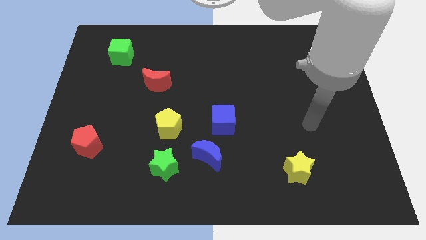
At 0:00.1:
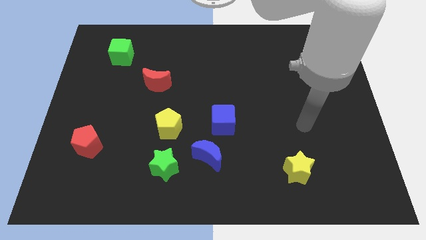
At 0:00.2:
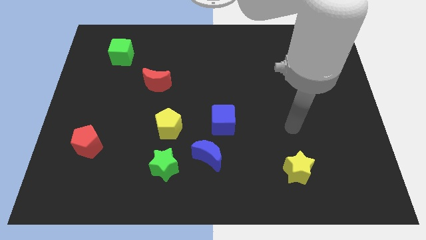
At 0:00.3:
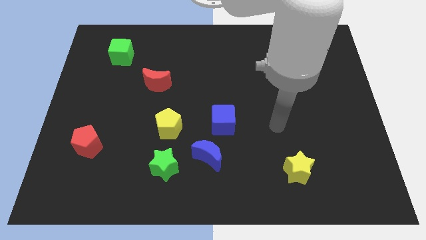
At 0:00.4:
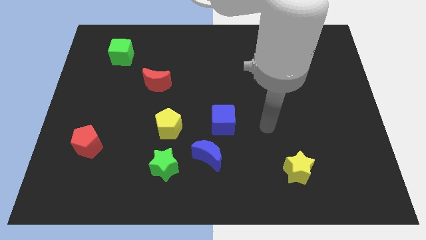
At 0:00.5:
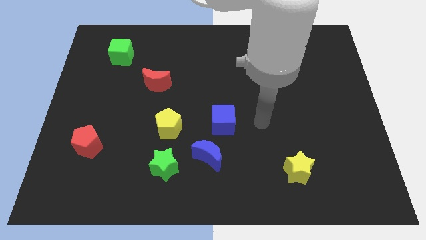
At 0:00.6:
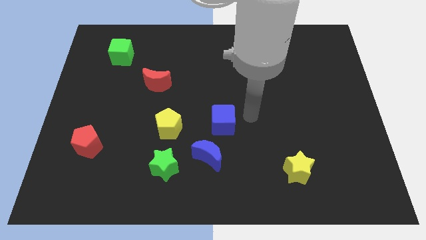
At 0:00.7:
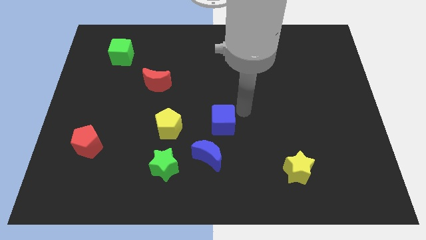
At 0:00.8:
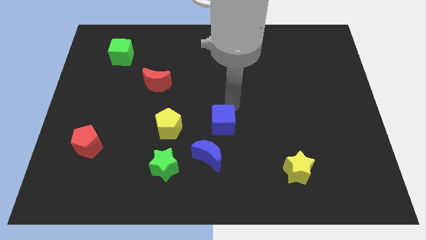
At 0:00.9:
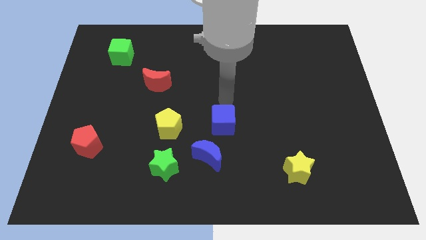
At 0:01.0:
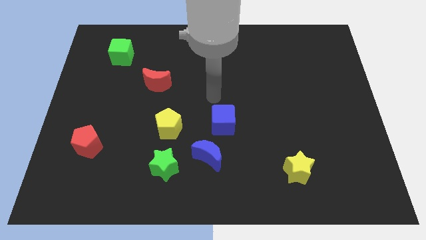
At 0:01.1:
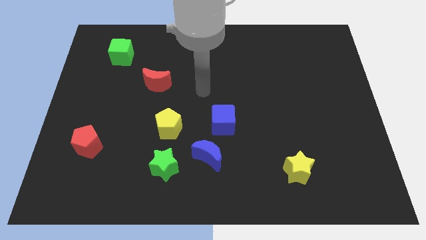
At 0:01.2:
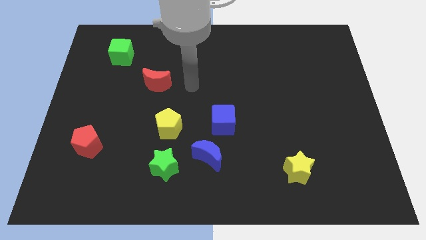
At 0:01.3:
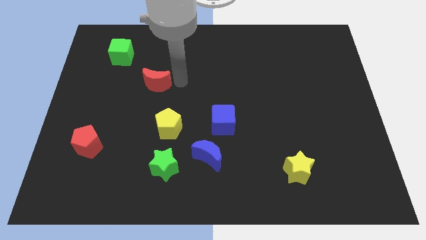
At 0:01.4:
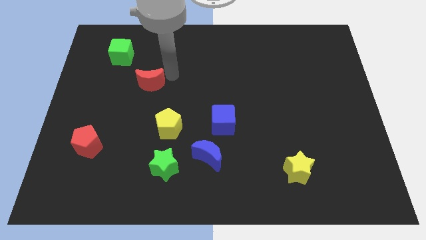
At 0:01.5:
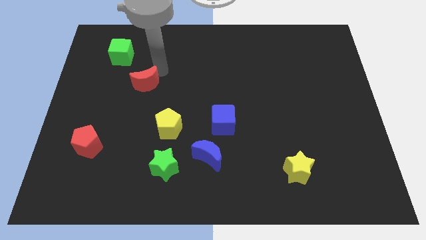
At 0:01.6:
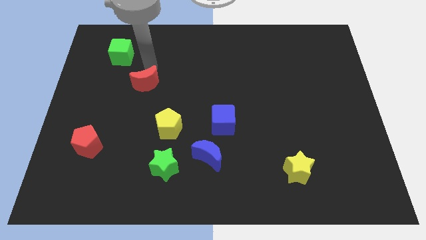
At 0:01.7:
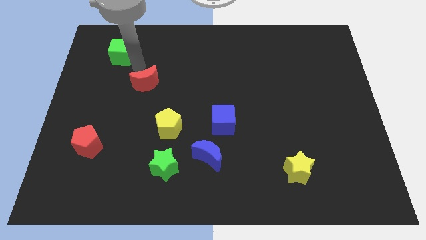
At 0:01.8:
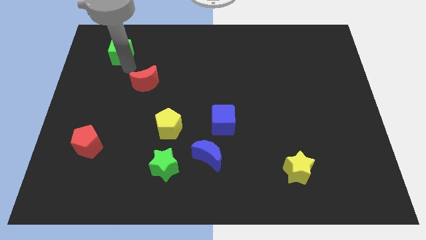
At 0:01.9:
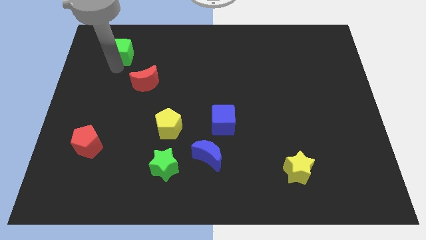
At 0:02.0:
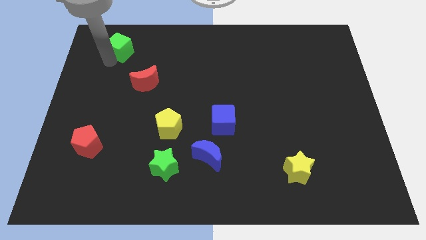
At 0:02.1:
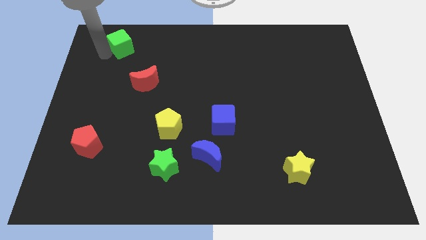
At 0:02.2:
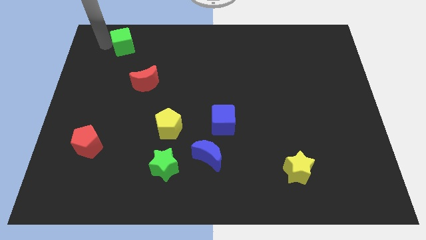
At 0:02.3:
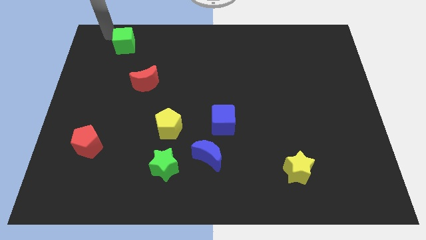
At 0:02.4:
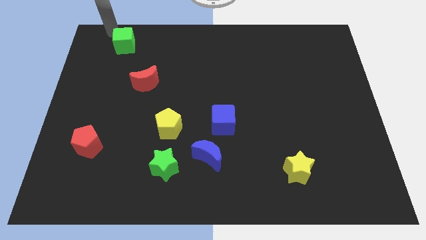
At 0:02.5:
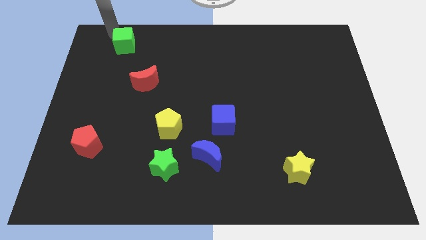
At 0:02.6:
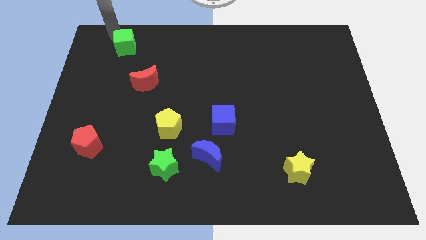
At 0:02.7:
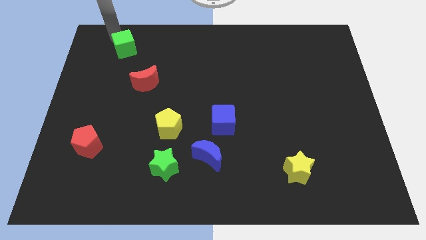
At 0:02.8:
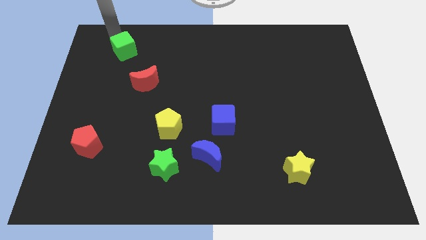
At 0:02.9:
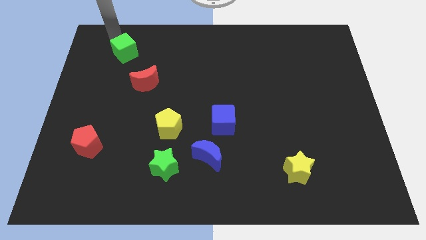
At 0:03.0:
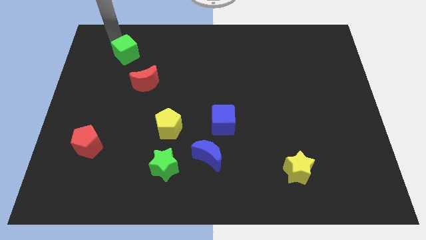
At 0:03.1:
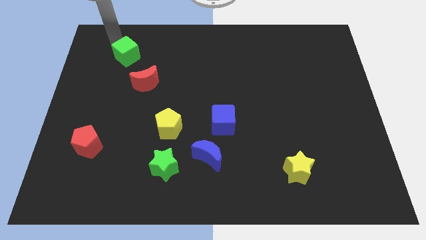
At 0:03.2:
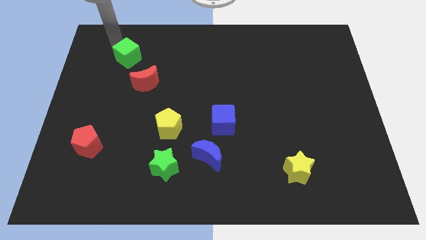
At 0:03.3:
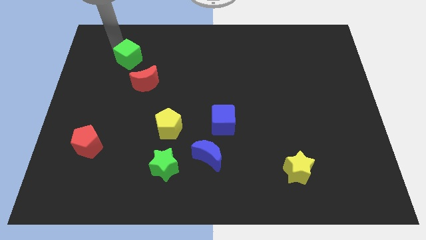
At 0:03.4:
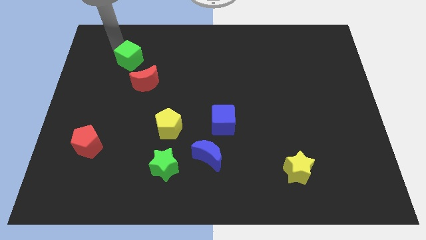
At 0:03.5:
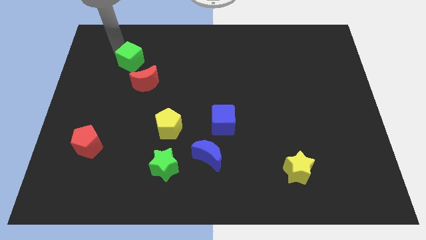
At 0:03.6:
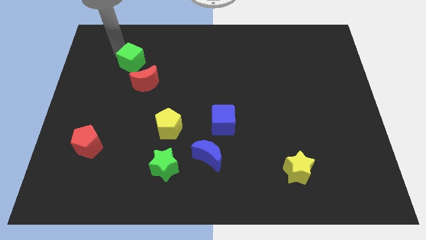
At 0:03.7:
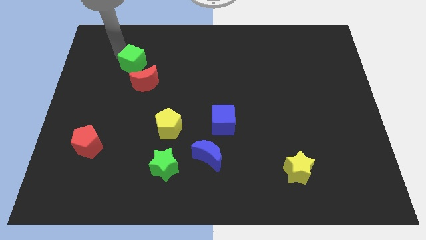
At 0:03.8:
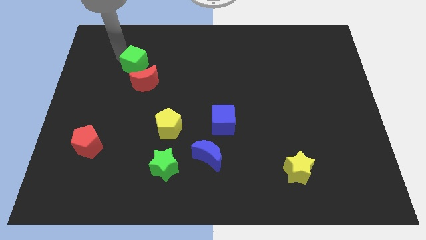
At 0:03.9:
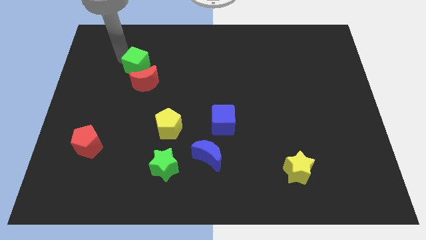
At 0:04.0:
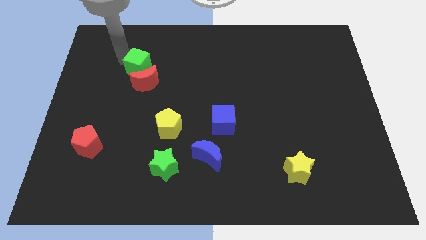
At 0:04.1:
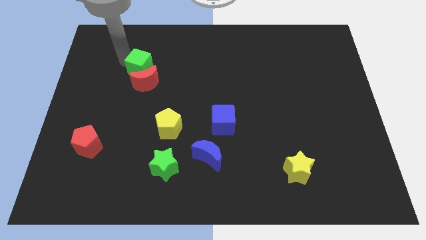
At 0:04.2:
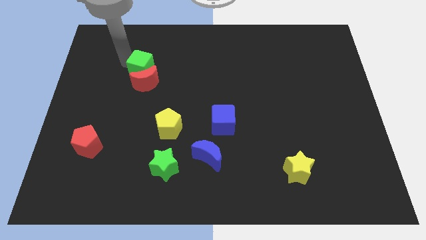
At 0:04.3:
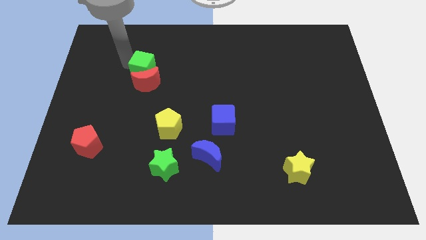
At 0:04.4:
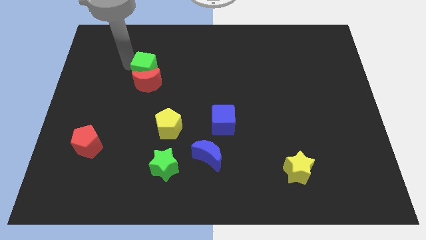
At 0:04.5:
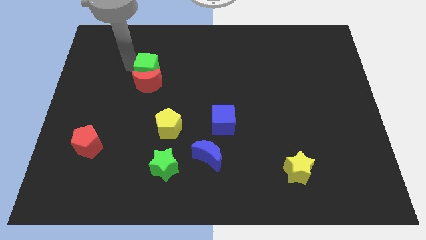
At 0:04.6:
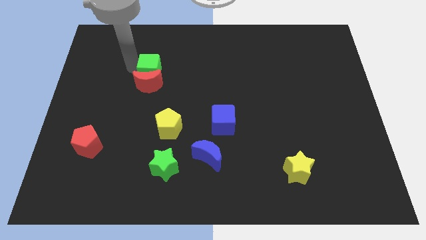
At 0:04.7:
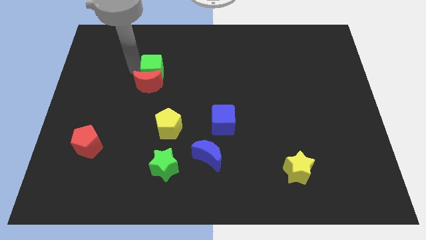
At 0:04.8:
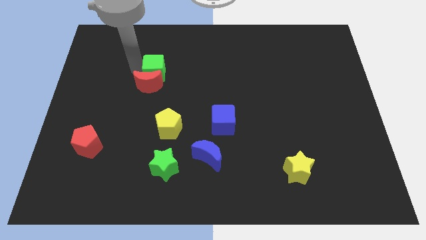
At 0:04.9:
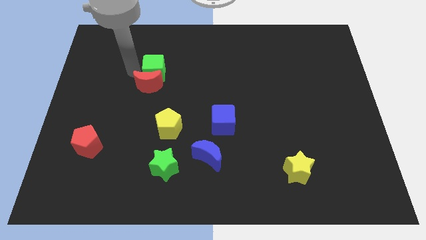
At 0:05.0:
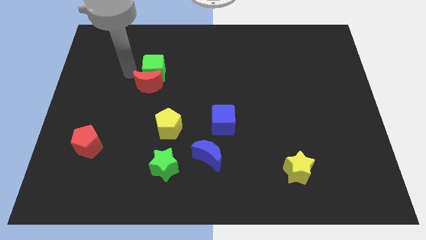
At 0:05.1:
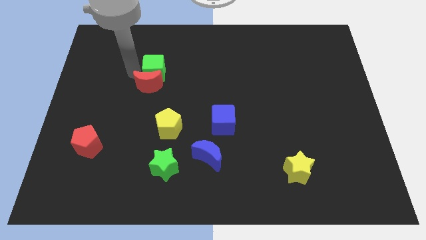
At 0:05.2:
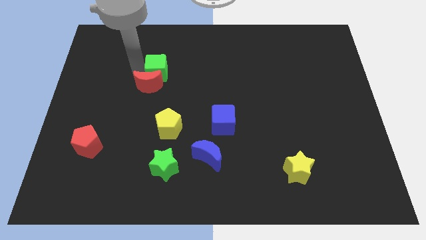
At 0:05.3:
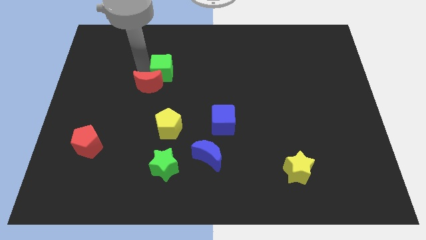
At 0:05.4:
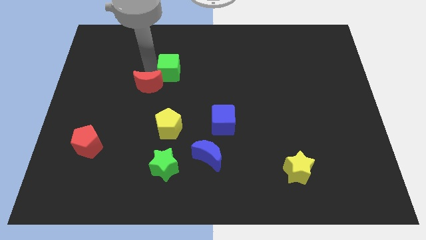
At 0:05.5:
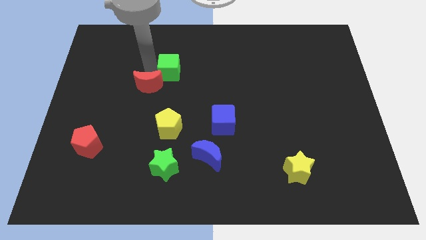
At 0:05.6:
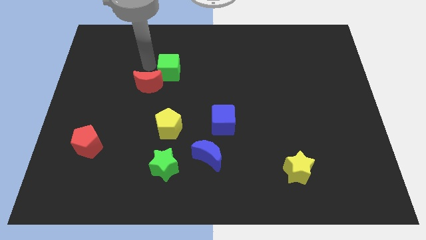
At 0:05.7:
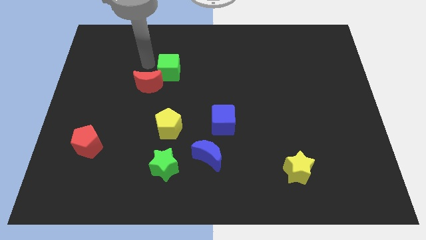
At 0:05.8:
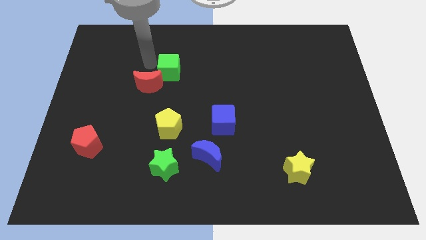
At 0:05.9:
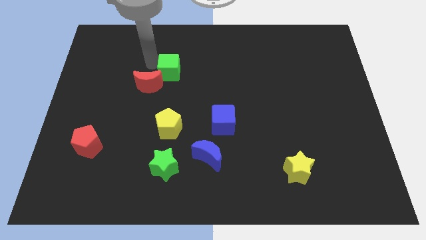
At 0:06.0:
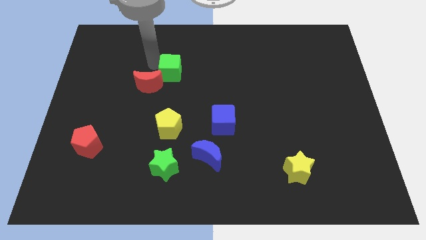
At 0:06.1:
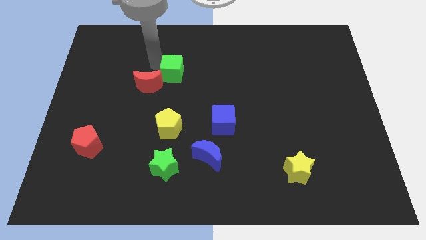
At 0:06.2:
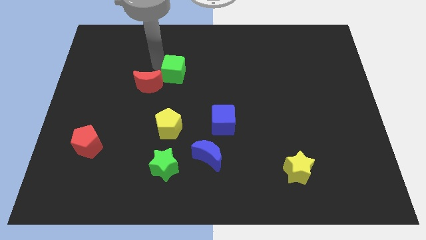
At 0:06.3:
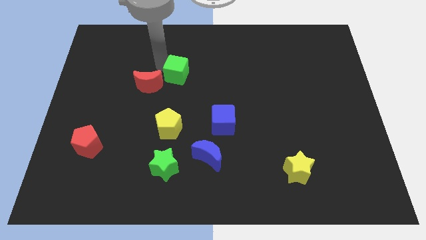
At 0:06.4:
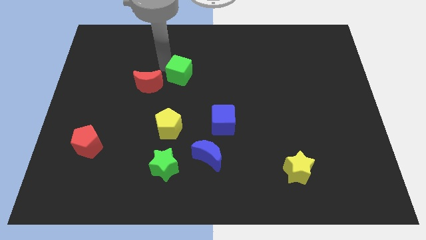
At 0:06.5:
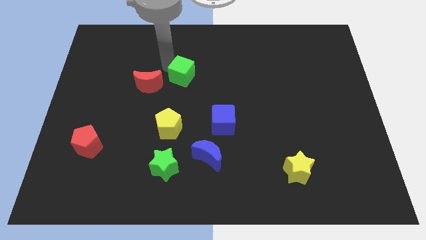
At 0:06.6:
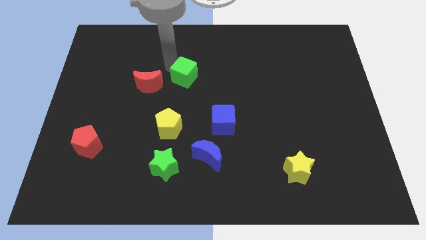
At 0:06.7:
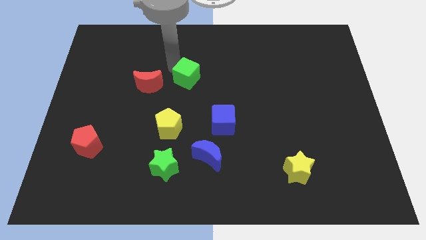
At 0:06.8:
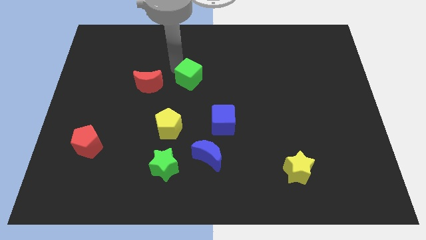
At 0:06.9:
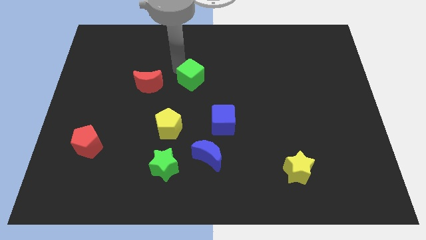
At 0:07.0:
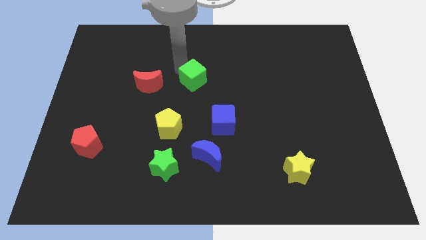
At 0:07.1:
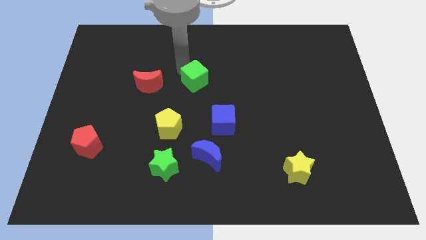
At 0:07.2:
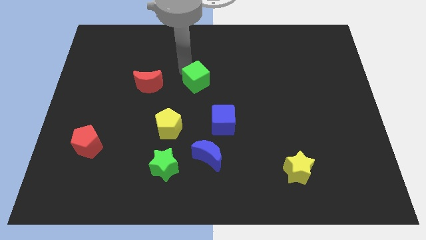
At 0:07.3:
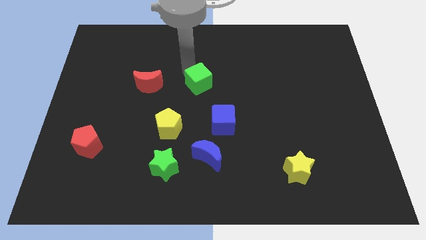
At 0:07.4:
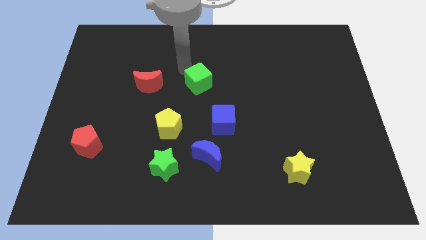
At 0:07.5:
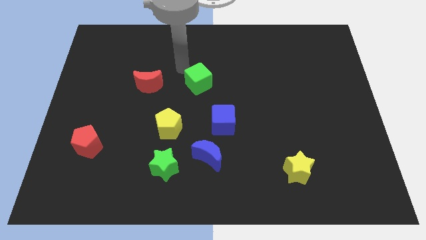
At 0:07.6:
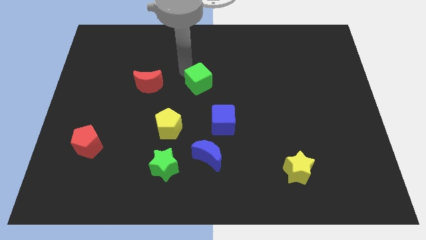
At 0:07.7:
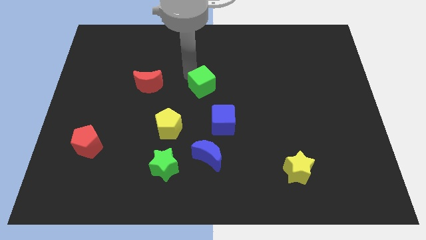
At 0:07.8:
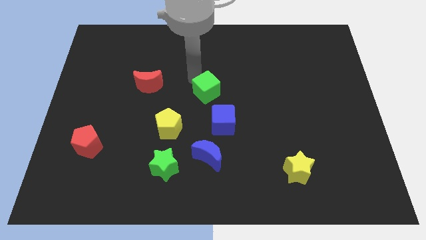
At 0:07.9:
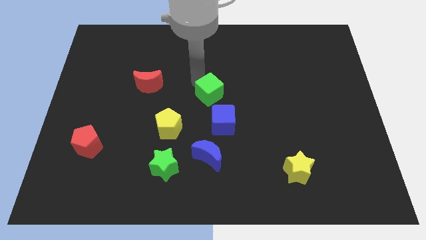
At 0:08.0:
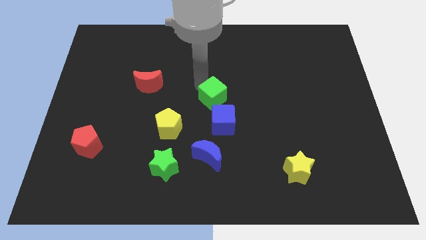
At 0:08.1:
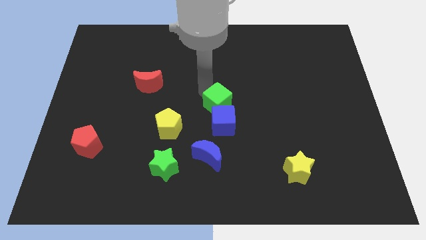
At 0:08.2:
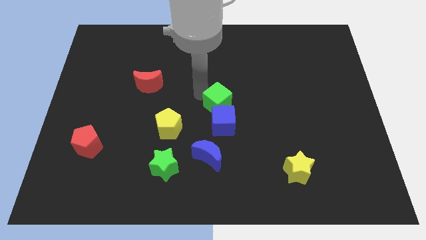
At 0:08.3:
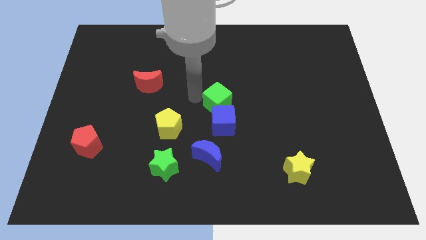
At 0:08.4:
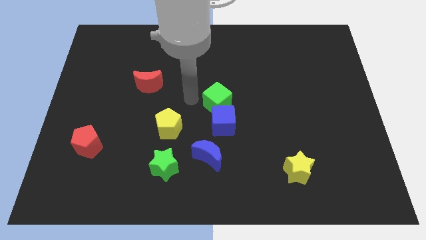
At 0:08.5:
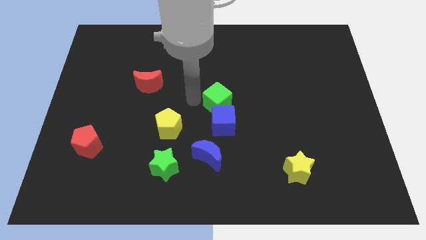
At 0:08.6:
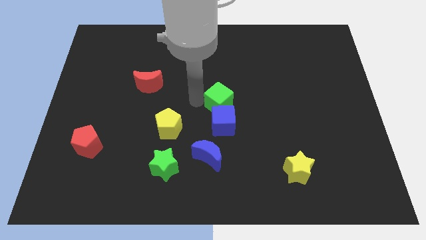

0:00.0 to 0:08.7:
push the green cube diagonally up and to the right of the blue cube

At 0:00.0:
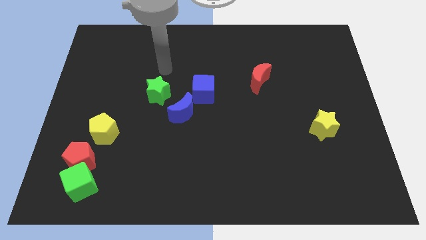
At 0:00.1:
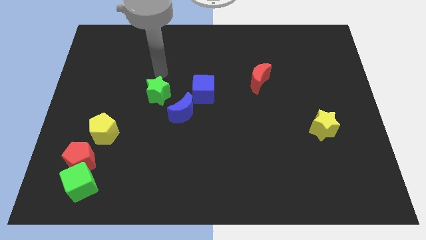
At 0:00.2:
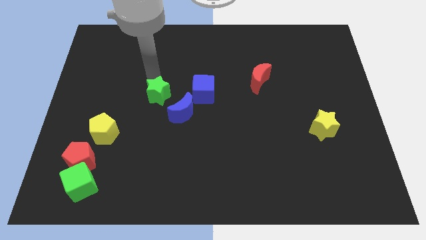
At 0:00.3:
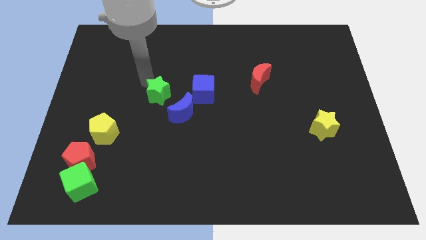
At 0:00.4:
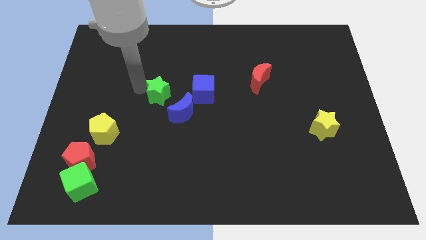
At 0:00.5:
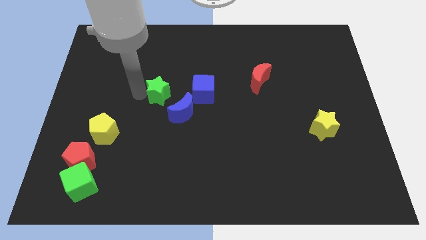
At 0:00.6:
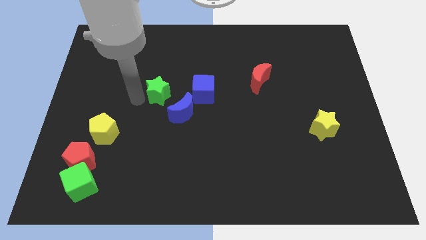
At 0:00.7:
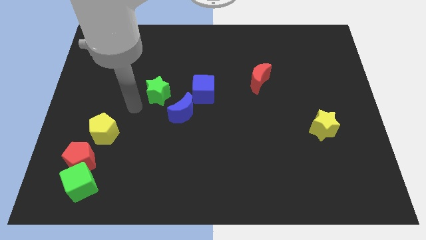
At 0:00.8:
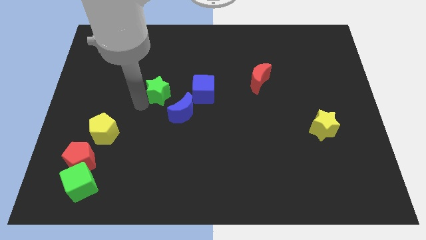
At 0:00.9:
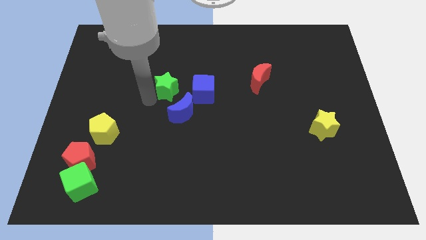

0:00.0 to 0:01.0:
put the green star above the blue moon
